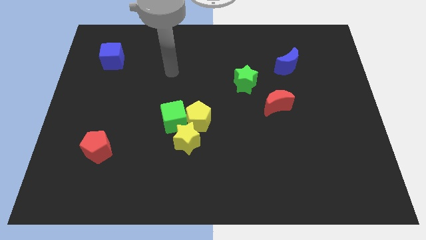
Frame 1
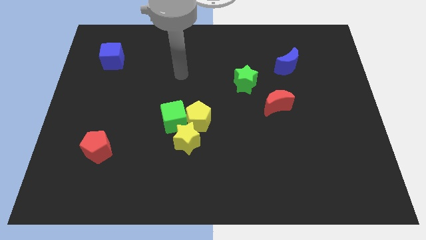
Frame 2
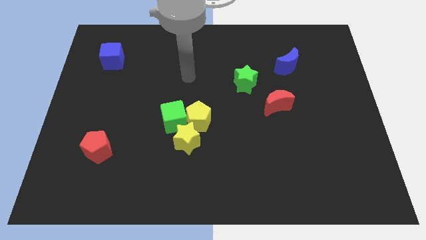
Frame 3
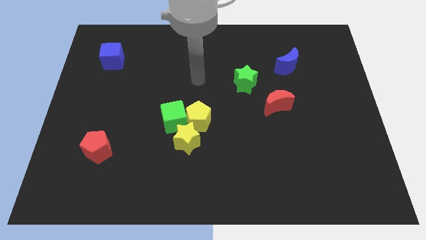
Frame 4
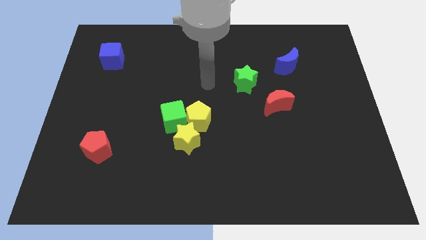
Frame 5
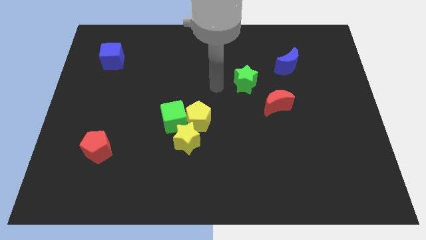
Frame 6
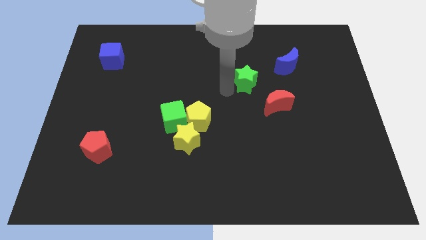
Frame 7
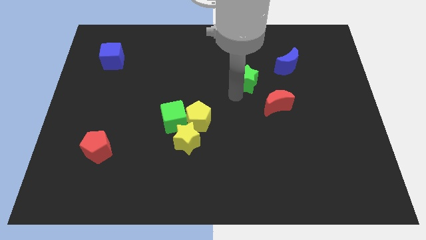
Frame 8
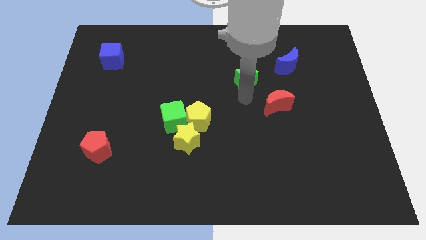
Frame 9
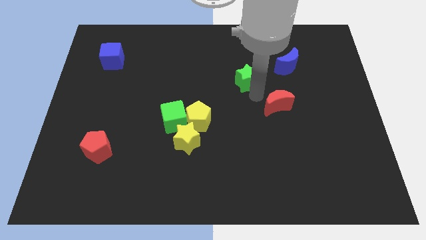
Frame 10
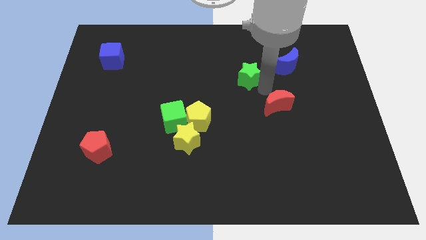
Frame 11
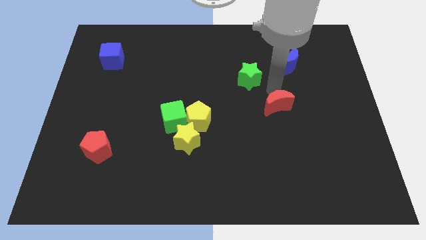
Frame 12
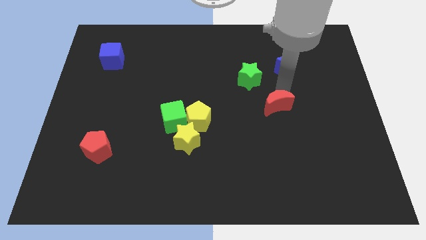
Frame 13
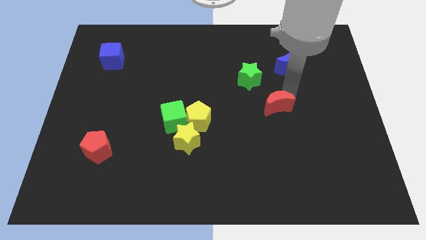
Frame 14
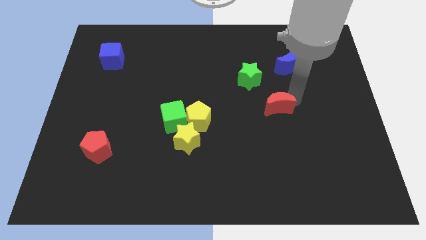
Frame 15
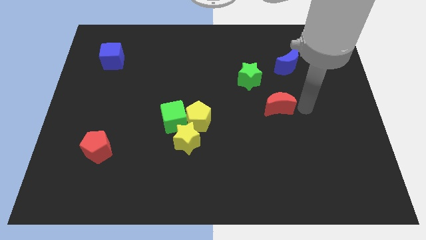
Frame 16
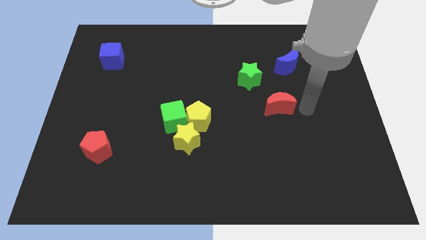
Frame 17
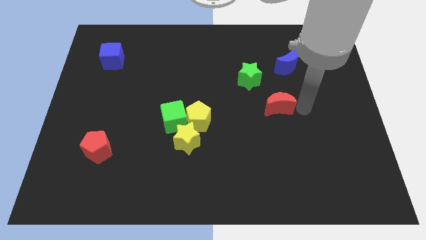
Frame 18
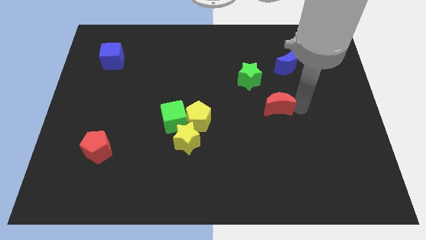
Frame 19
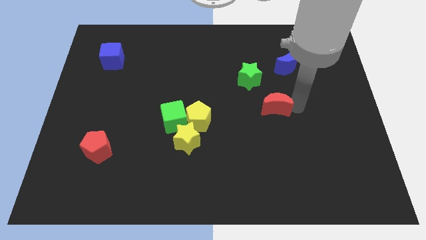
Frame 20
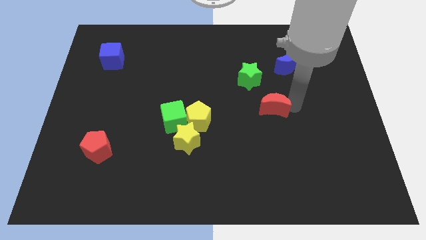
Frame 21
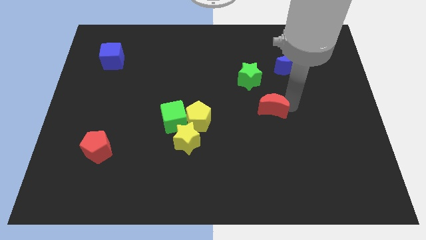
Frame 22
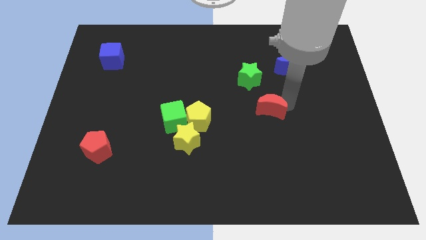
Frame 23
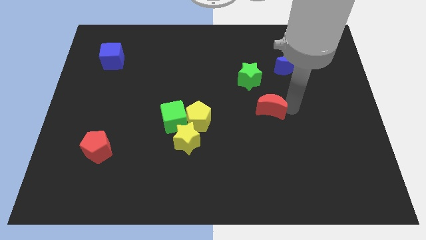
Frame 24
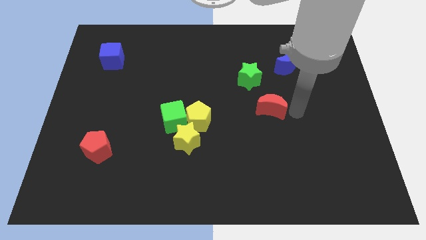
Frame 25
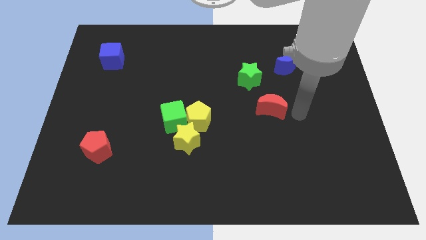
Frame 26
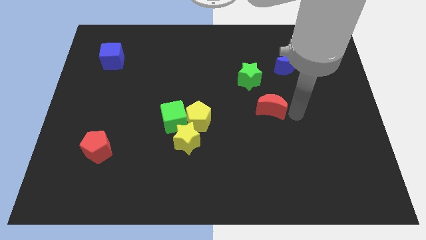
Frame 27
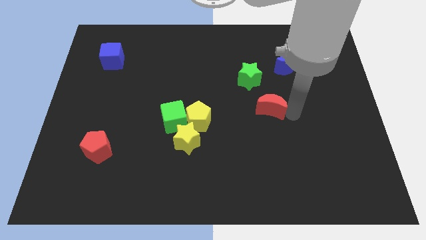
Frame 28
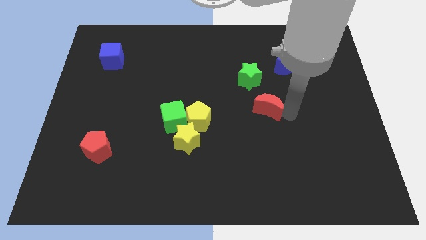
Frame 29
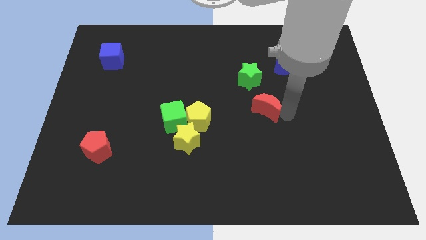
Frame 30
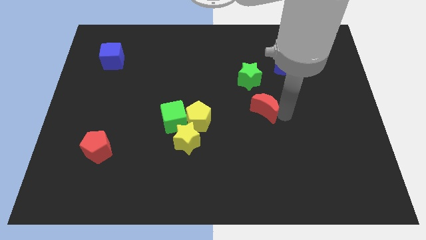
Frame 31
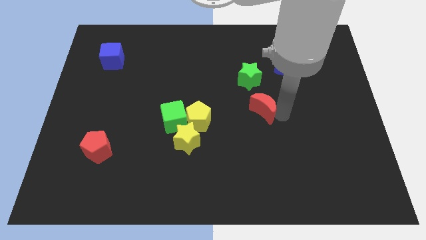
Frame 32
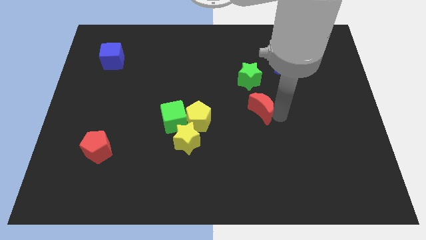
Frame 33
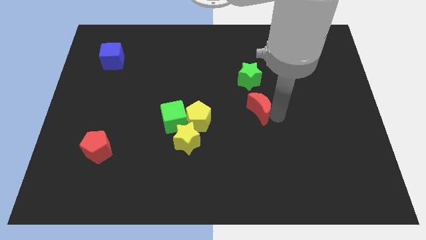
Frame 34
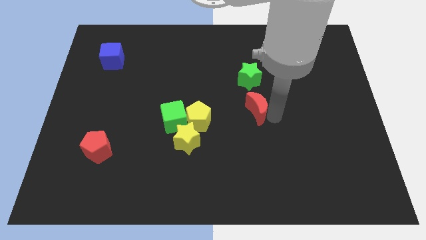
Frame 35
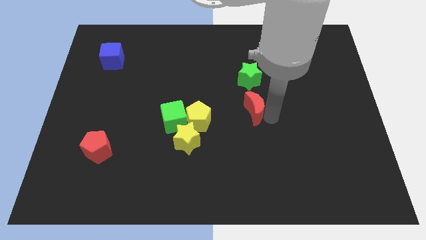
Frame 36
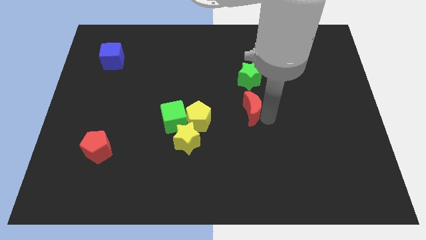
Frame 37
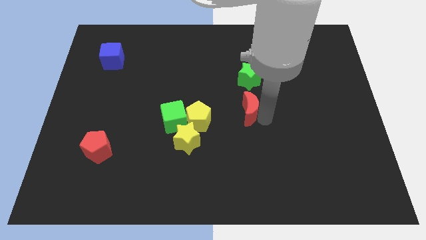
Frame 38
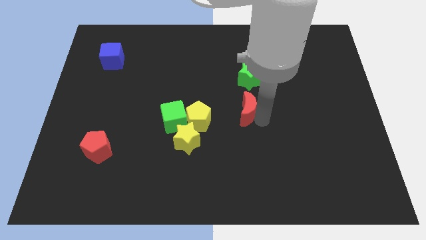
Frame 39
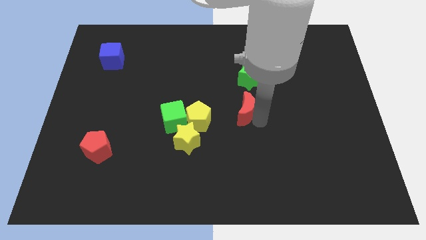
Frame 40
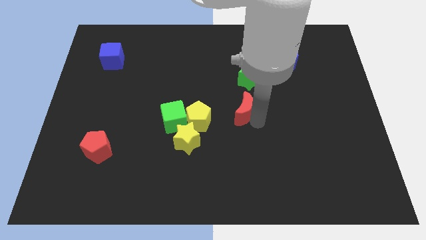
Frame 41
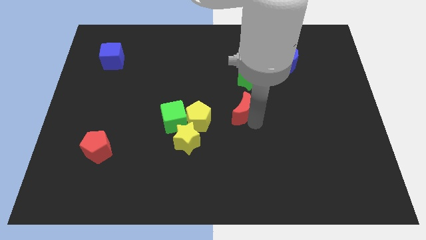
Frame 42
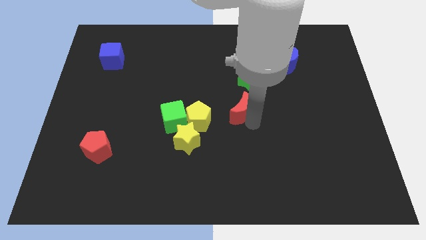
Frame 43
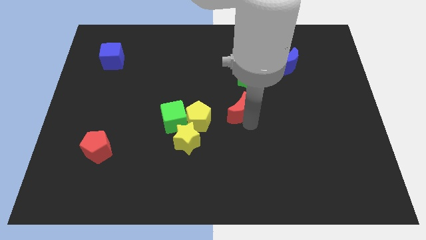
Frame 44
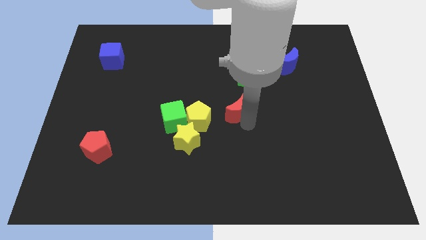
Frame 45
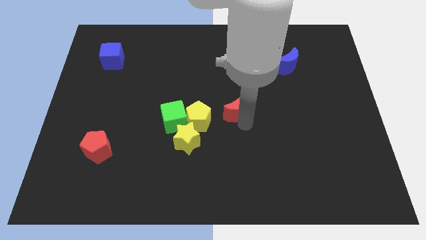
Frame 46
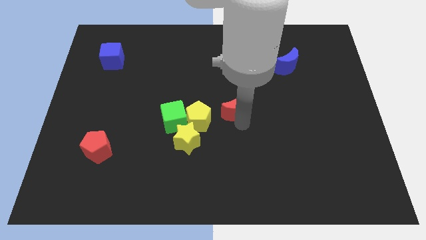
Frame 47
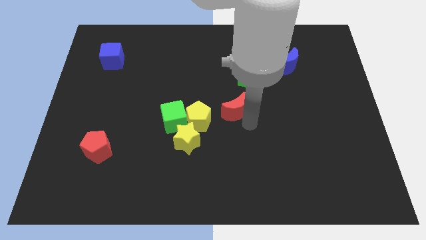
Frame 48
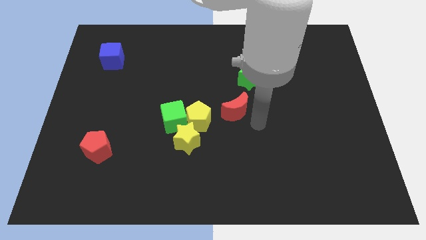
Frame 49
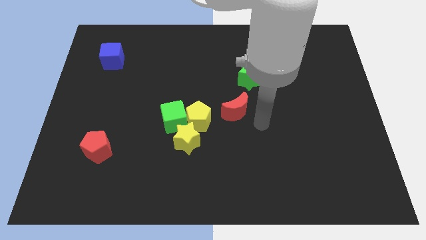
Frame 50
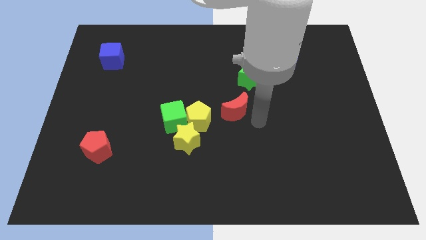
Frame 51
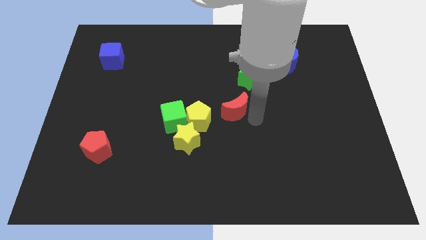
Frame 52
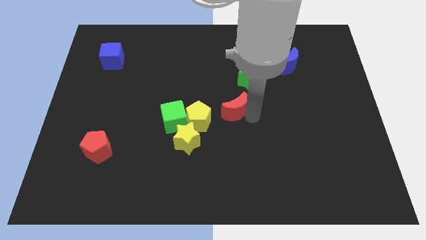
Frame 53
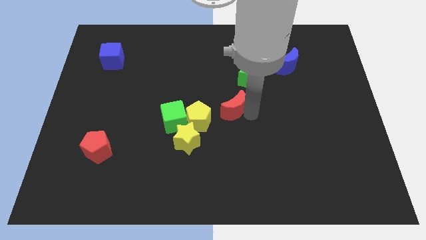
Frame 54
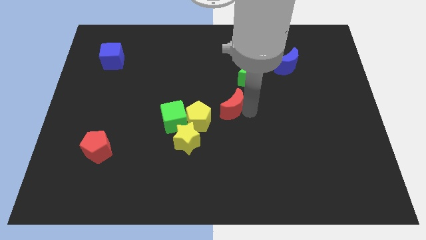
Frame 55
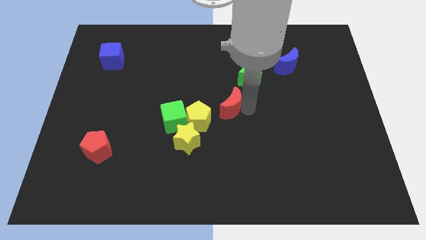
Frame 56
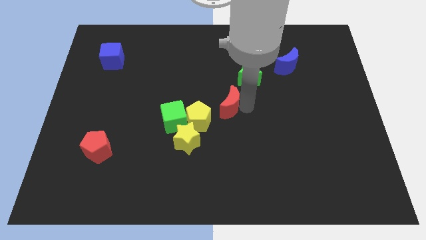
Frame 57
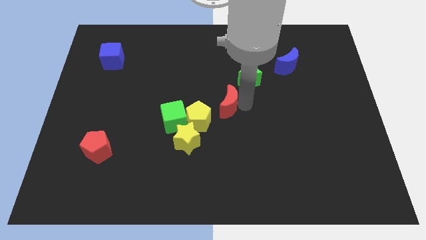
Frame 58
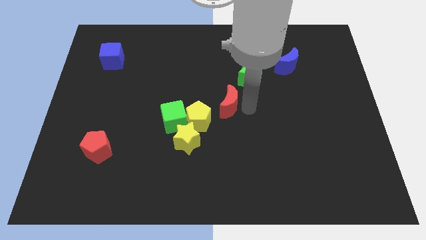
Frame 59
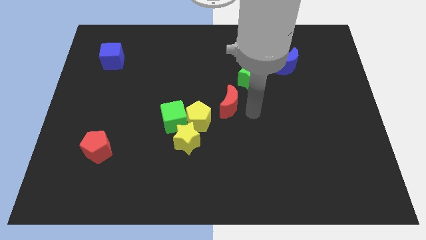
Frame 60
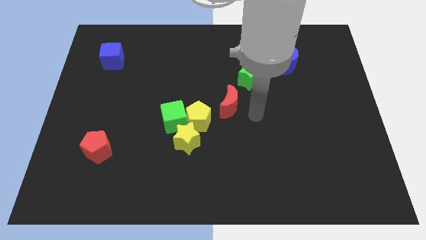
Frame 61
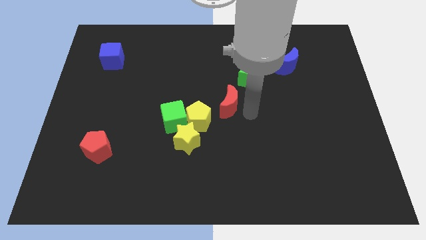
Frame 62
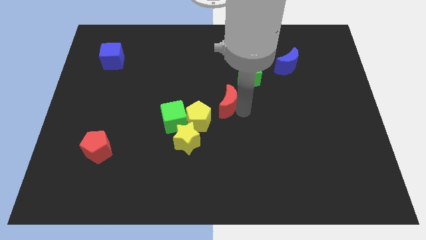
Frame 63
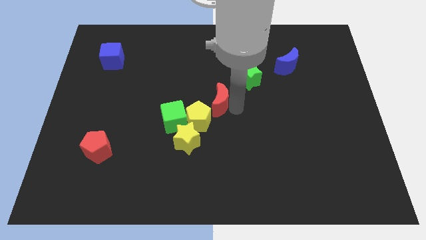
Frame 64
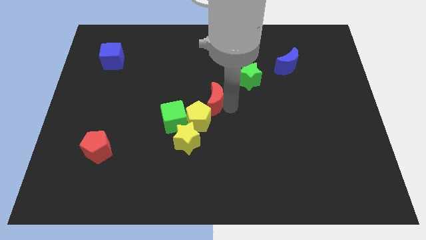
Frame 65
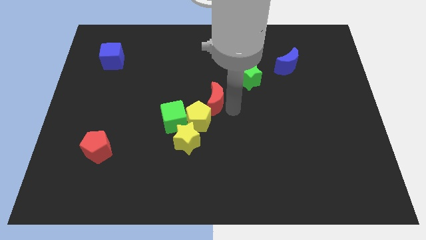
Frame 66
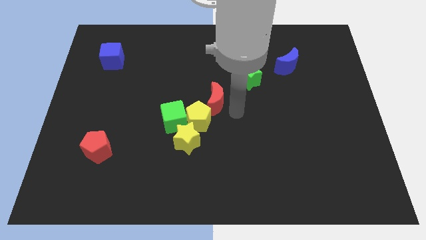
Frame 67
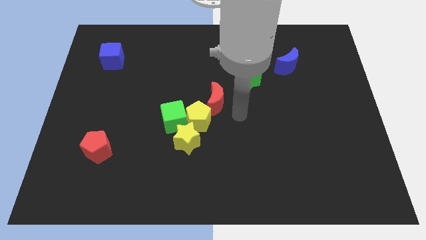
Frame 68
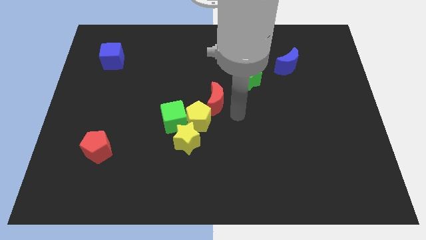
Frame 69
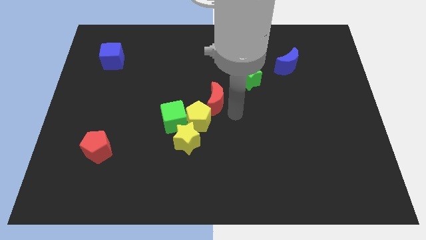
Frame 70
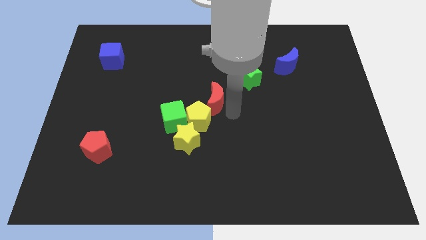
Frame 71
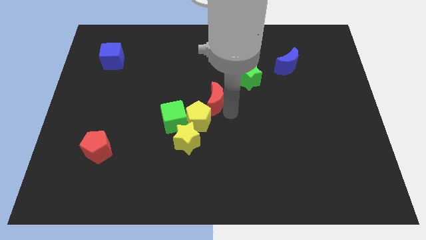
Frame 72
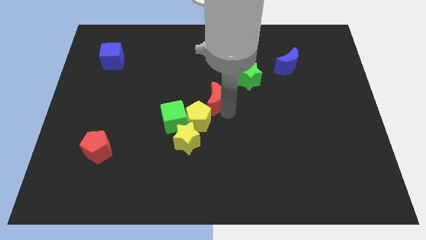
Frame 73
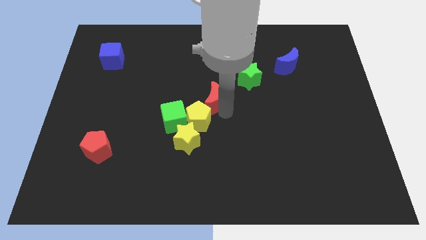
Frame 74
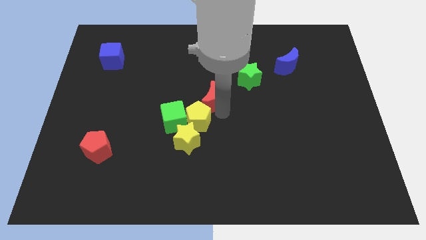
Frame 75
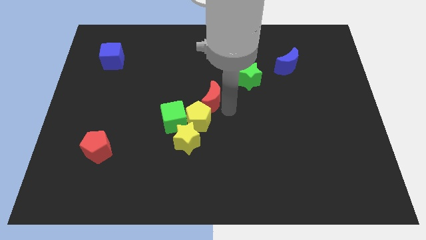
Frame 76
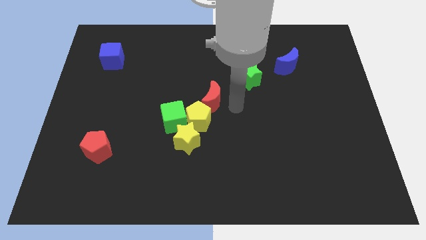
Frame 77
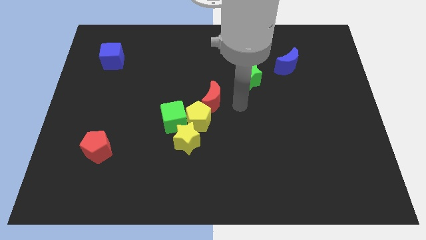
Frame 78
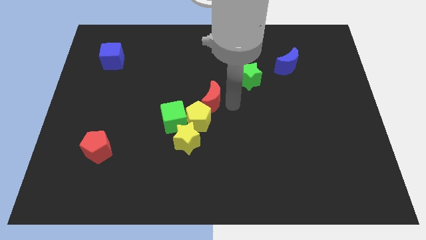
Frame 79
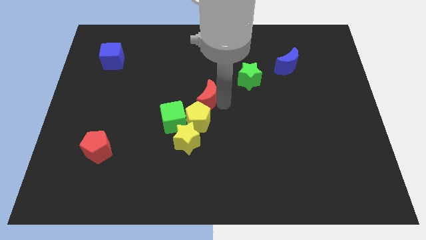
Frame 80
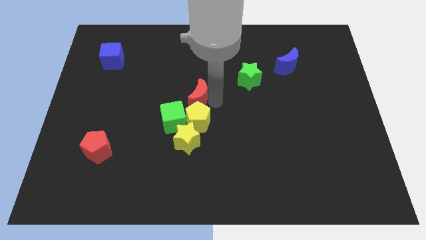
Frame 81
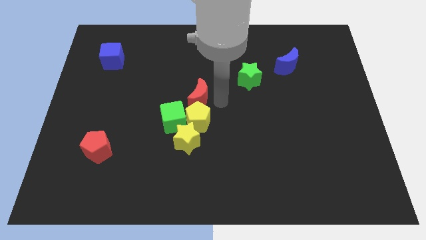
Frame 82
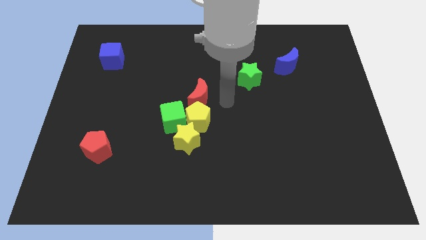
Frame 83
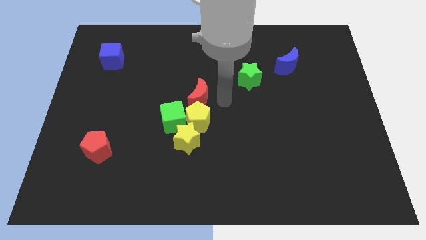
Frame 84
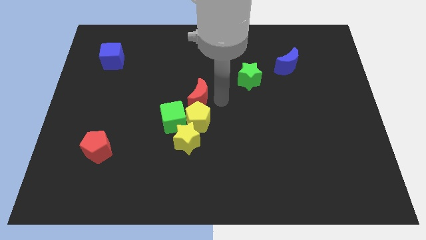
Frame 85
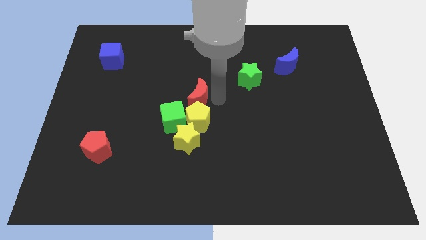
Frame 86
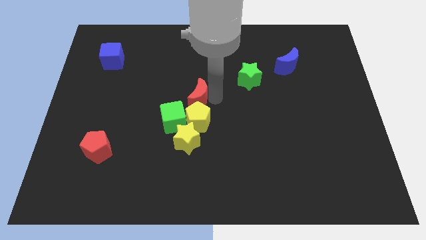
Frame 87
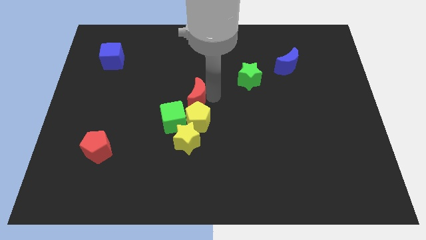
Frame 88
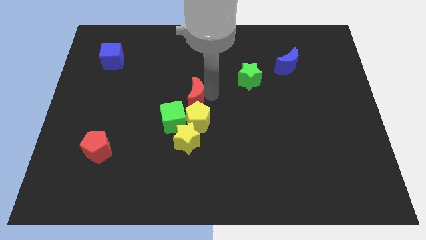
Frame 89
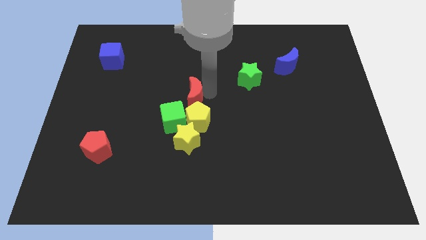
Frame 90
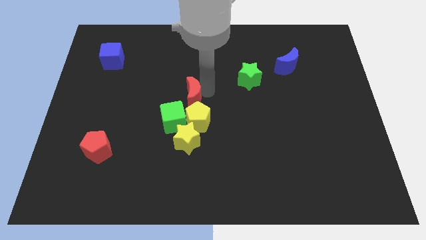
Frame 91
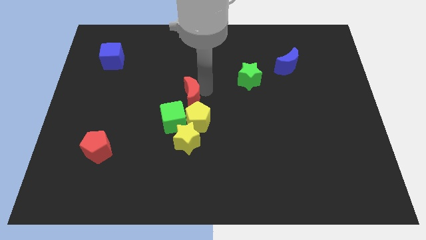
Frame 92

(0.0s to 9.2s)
move the red moon left
